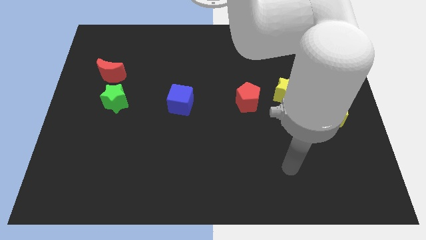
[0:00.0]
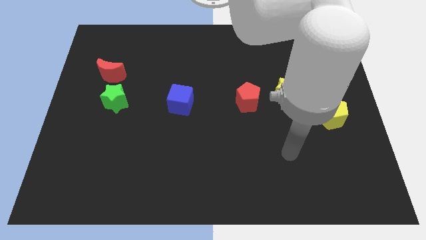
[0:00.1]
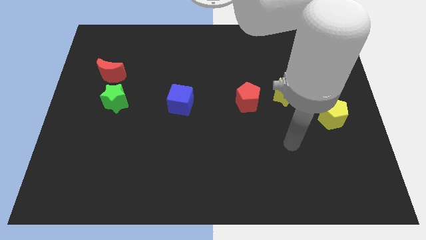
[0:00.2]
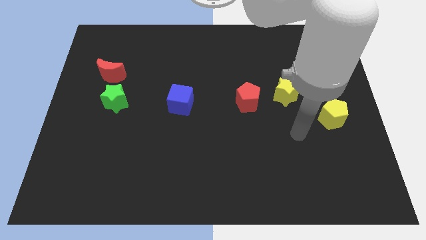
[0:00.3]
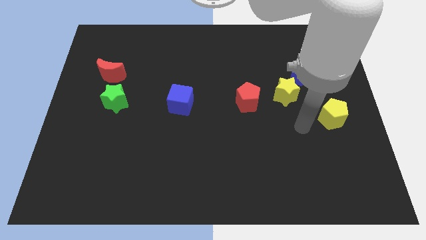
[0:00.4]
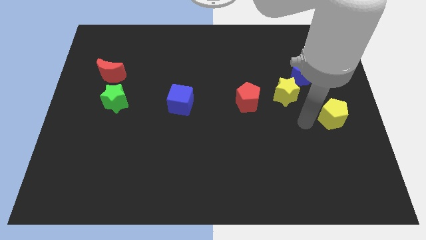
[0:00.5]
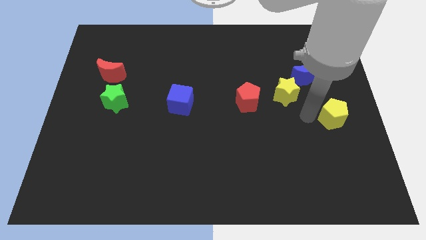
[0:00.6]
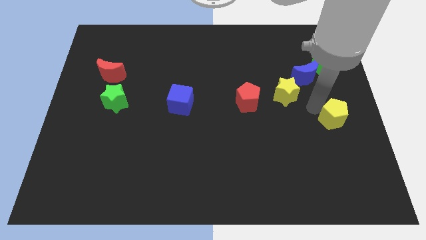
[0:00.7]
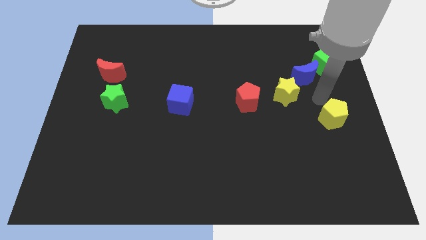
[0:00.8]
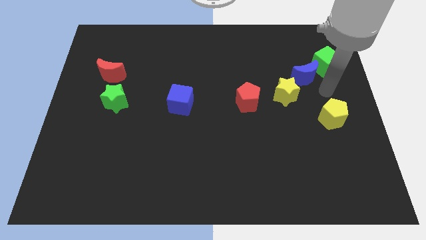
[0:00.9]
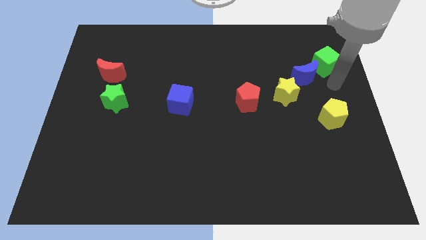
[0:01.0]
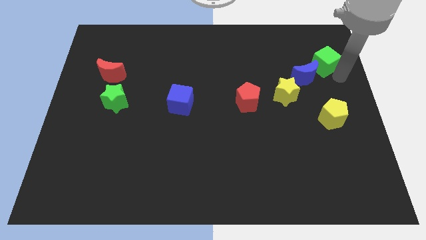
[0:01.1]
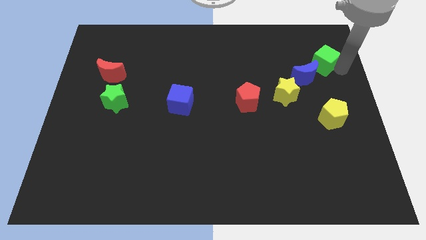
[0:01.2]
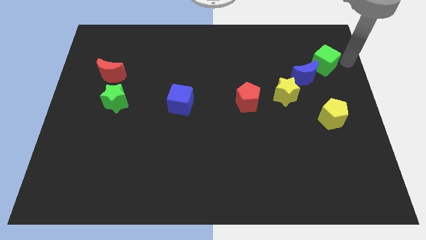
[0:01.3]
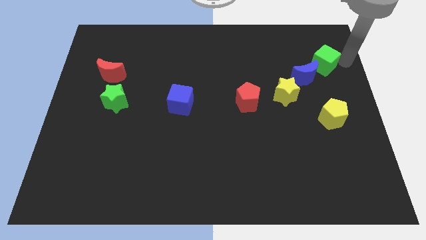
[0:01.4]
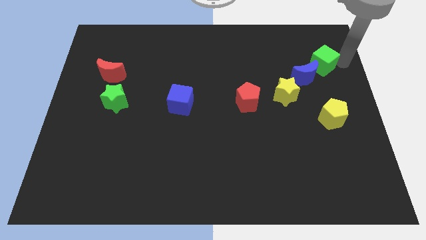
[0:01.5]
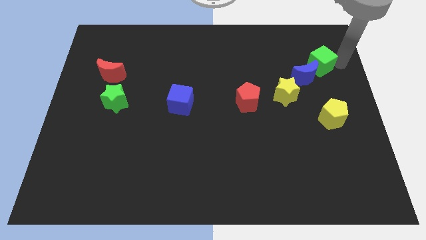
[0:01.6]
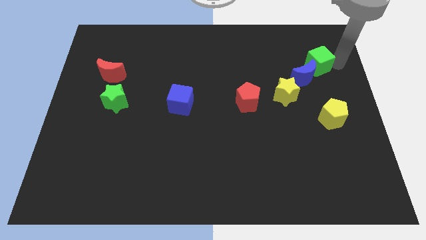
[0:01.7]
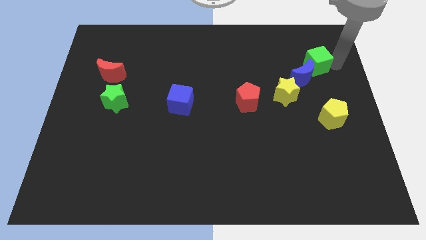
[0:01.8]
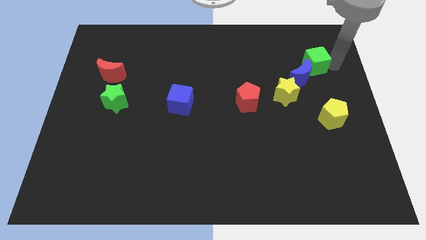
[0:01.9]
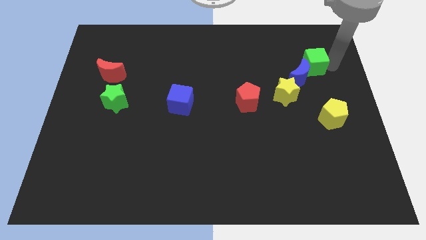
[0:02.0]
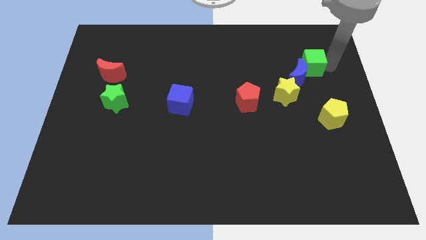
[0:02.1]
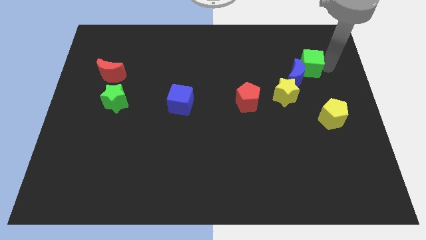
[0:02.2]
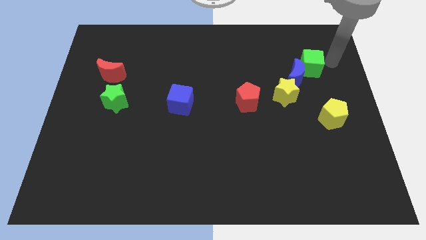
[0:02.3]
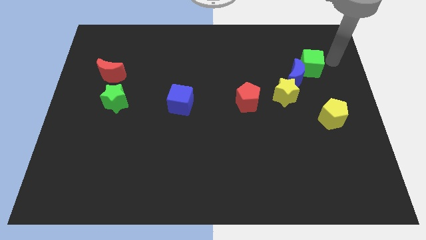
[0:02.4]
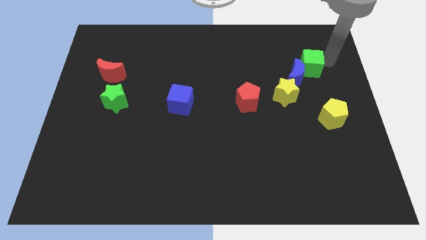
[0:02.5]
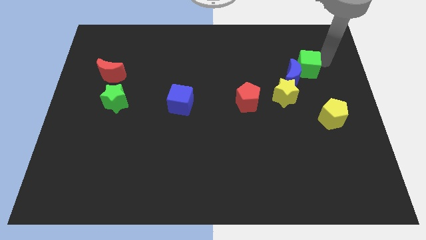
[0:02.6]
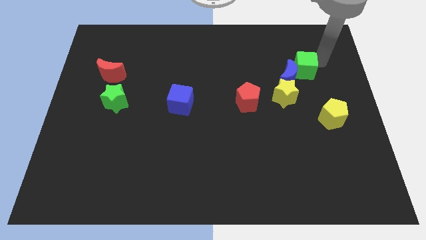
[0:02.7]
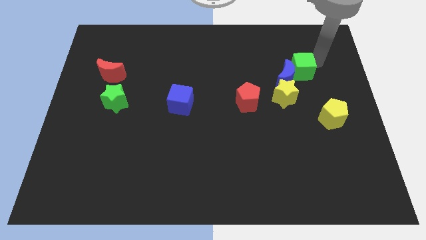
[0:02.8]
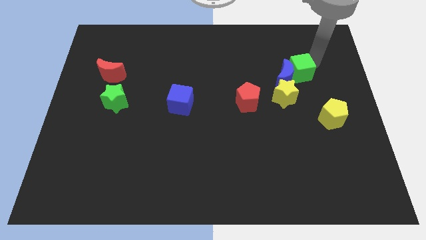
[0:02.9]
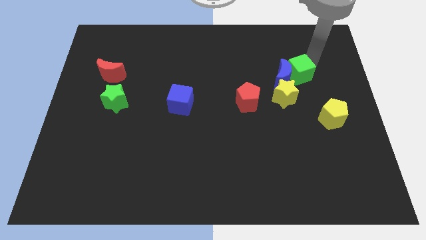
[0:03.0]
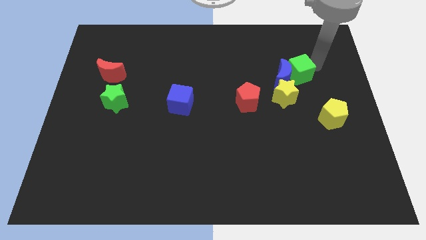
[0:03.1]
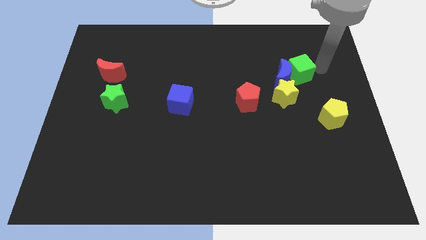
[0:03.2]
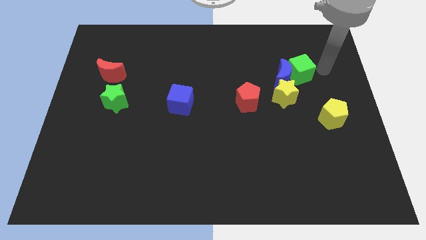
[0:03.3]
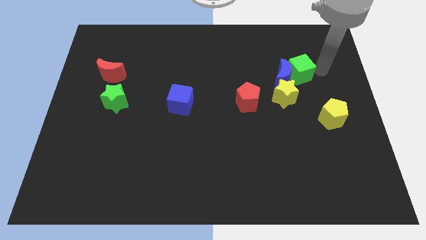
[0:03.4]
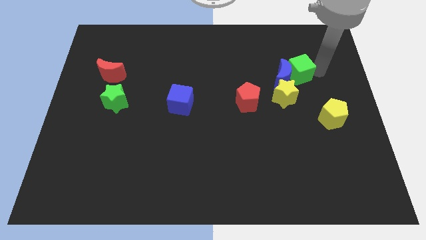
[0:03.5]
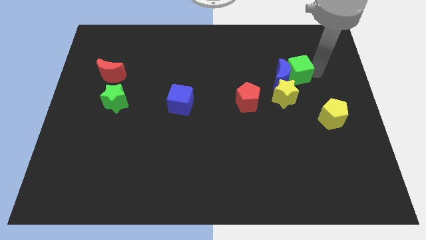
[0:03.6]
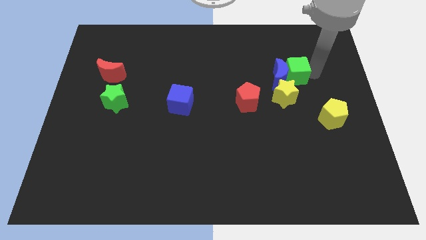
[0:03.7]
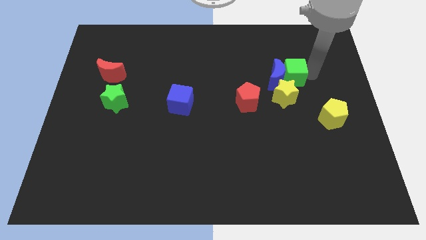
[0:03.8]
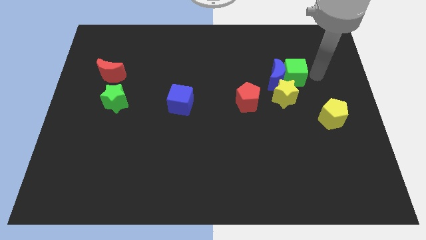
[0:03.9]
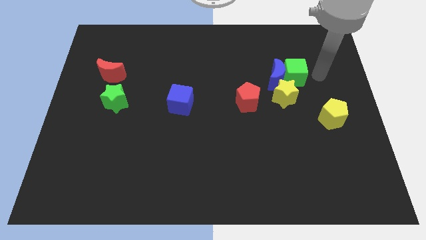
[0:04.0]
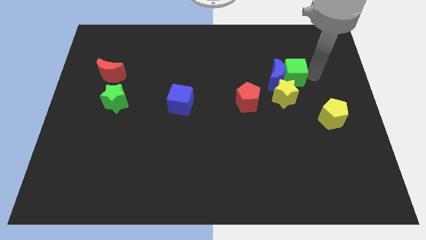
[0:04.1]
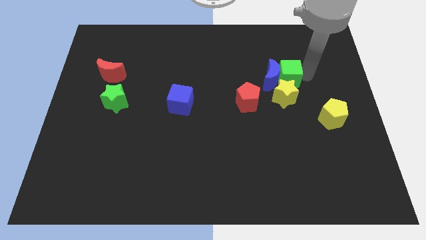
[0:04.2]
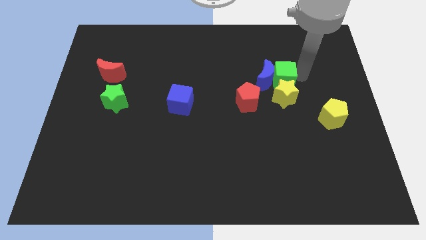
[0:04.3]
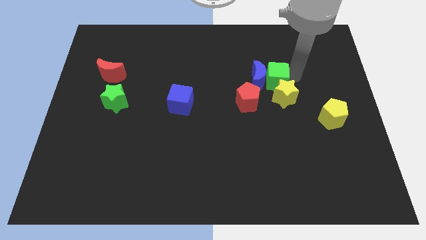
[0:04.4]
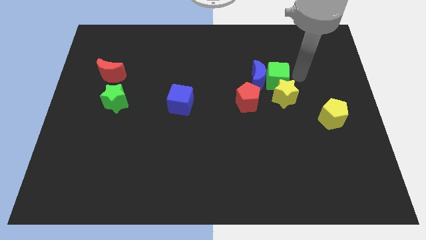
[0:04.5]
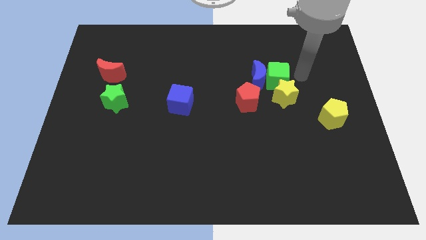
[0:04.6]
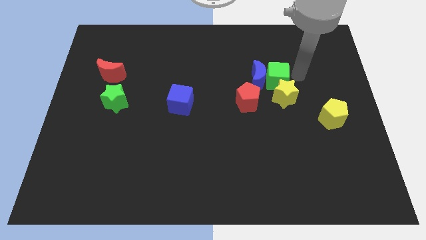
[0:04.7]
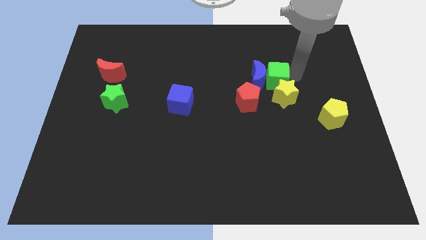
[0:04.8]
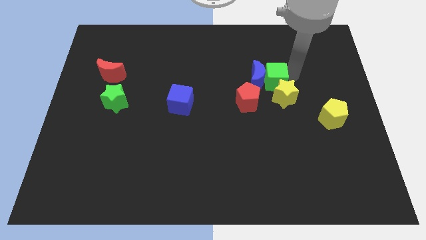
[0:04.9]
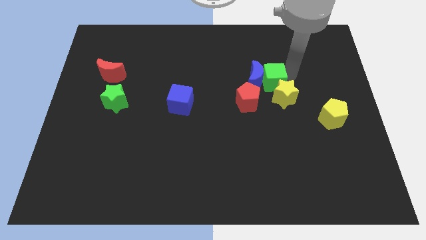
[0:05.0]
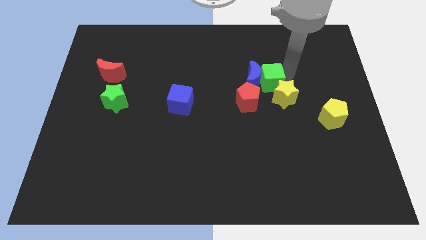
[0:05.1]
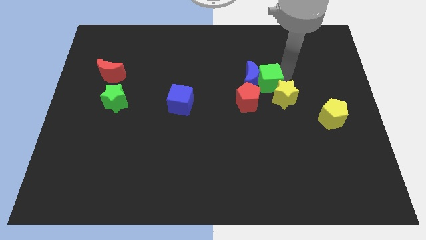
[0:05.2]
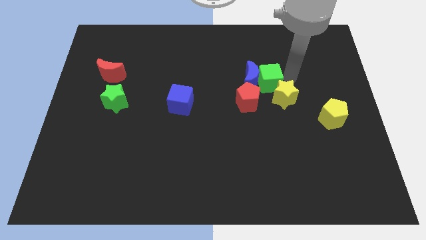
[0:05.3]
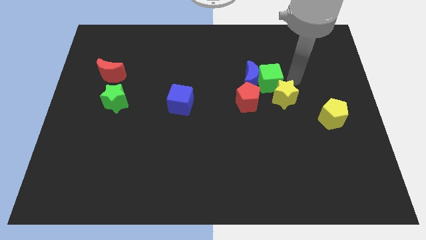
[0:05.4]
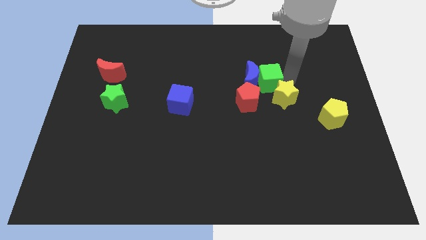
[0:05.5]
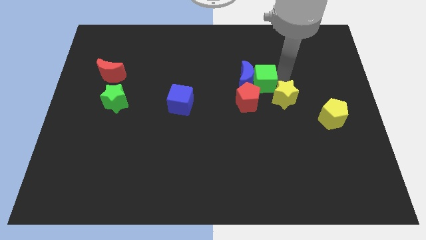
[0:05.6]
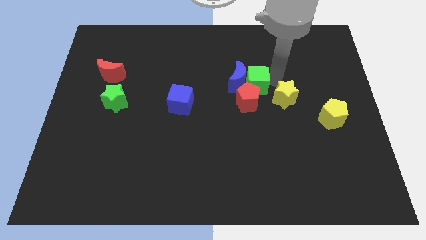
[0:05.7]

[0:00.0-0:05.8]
push the green cube to the middle of the board

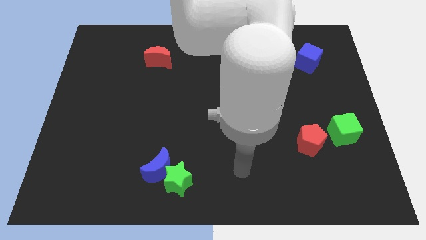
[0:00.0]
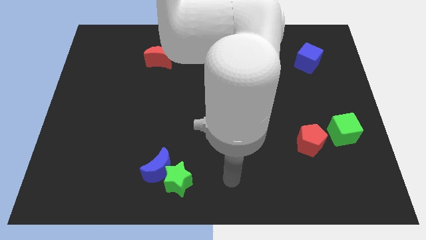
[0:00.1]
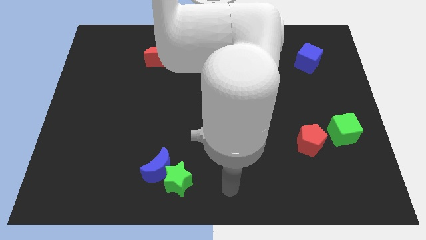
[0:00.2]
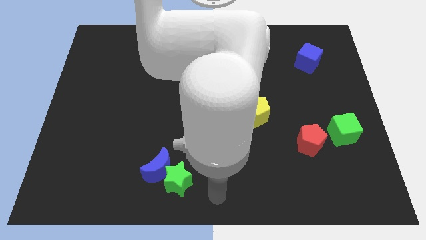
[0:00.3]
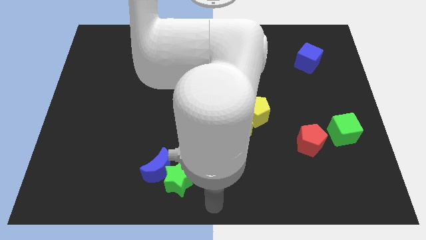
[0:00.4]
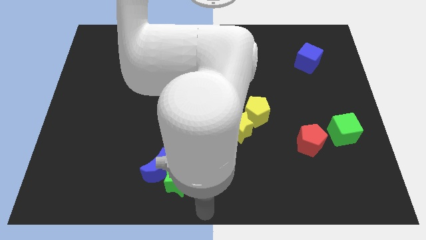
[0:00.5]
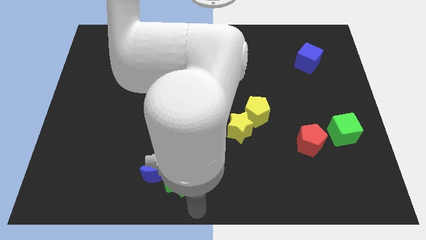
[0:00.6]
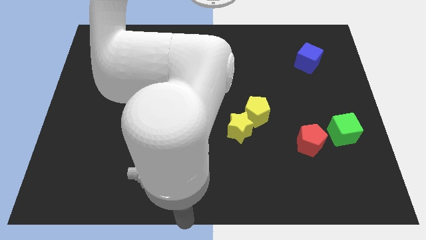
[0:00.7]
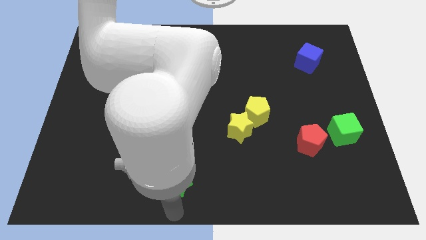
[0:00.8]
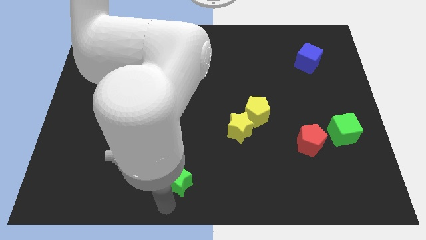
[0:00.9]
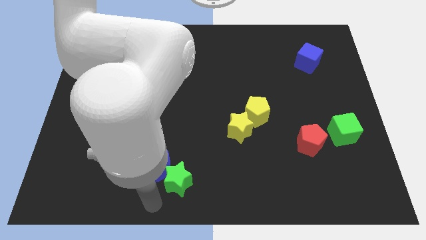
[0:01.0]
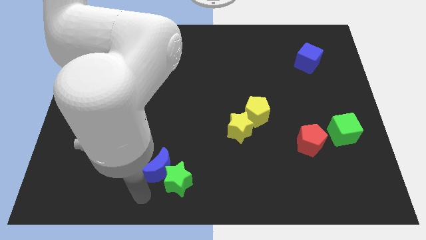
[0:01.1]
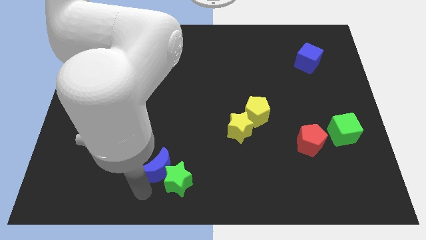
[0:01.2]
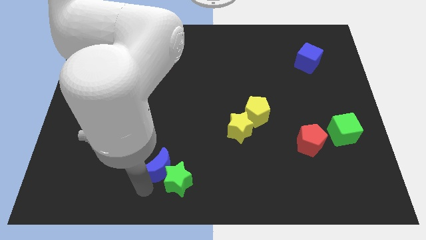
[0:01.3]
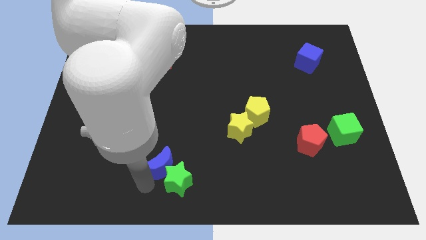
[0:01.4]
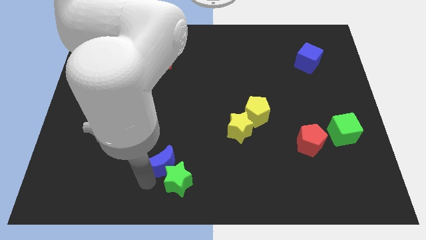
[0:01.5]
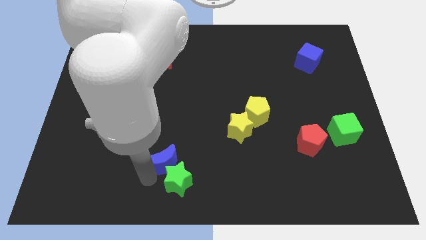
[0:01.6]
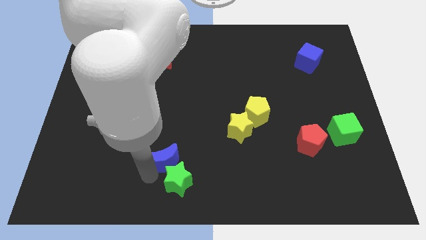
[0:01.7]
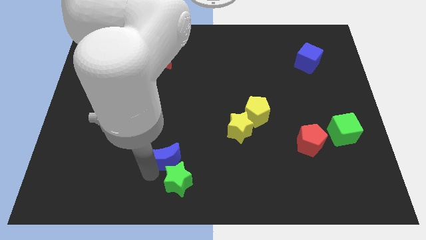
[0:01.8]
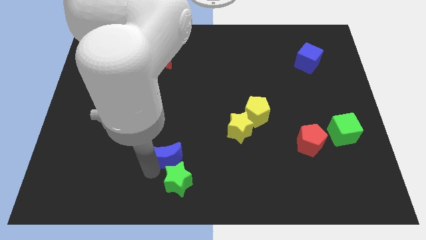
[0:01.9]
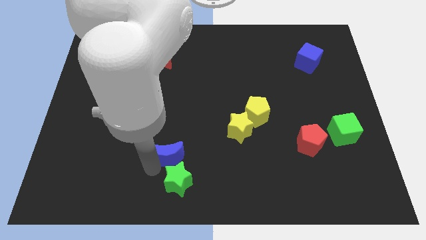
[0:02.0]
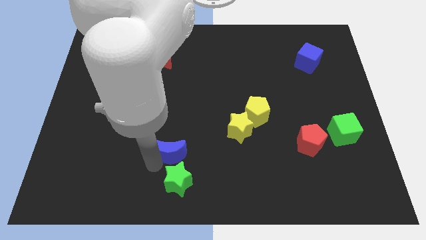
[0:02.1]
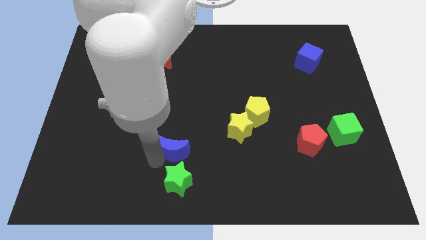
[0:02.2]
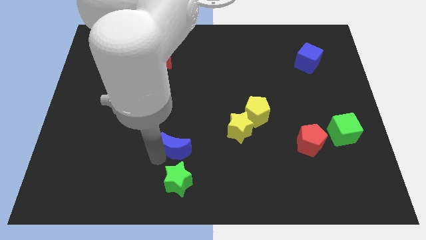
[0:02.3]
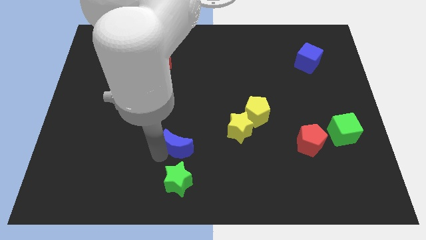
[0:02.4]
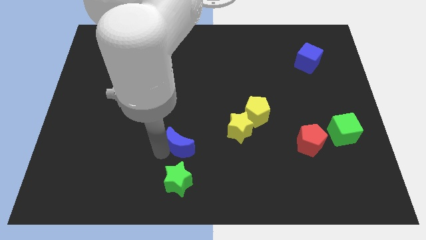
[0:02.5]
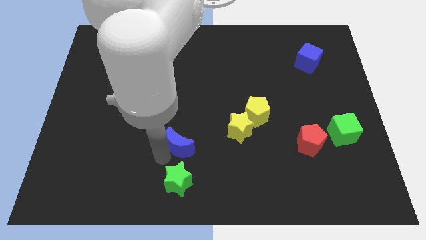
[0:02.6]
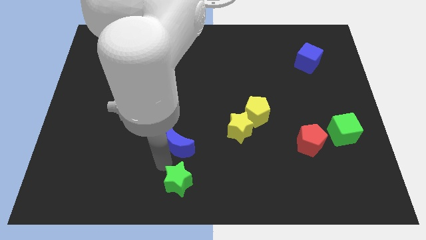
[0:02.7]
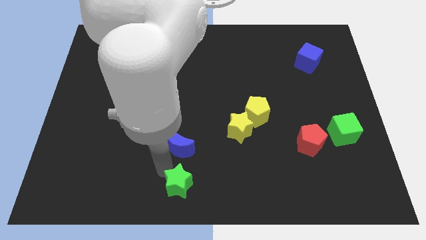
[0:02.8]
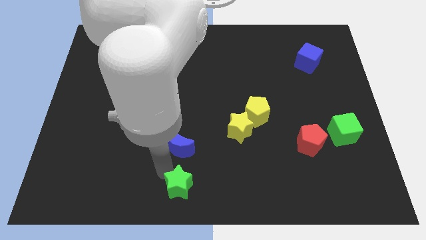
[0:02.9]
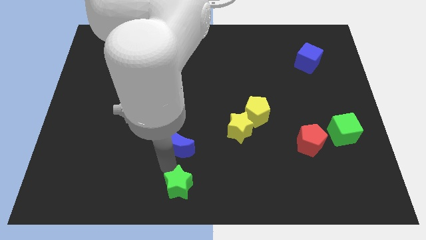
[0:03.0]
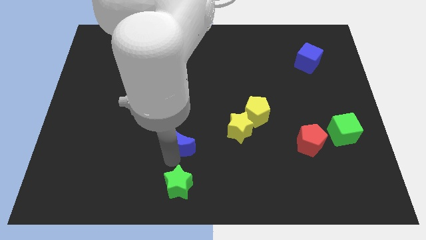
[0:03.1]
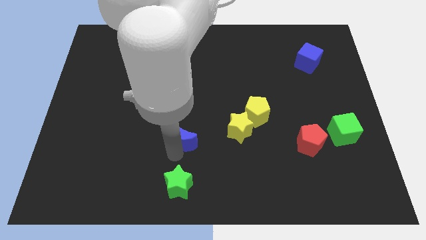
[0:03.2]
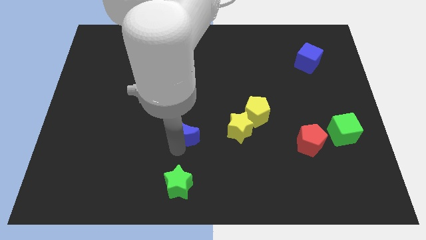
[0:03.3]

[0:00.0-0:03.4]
put the blue moon to the center of the board
